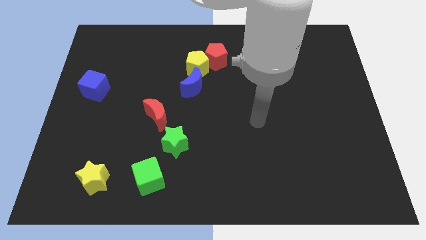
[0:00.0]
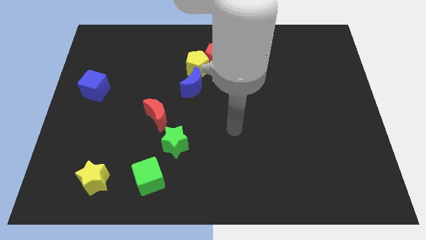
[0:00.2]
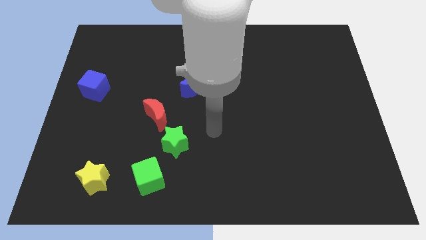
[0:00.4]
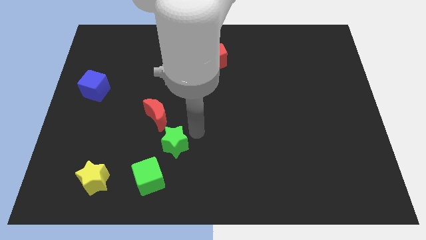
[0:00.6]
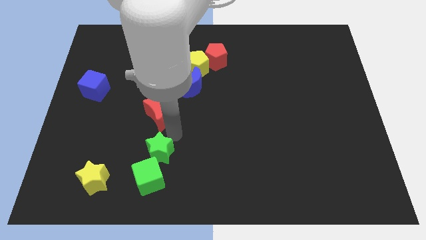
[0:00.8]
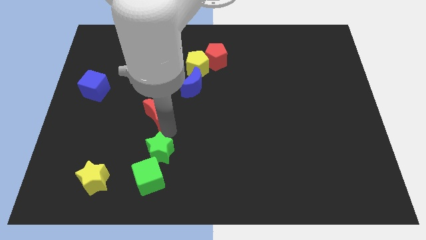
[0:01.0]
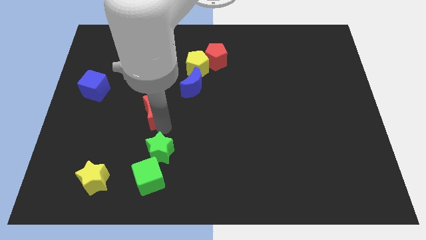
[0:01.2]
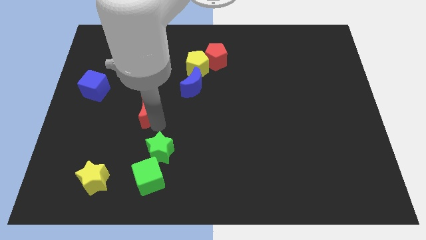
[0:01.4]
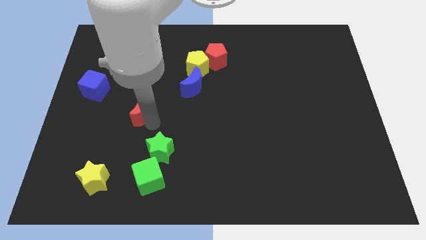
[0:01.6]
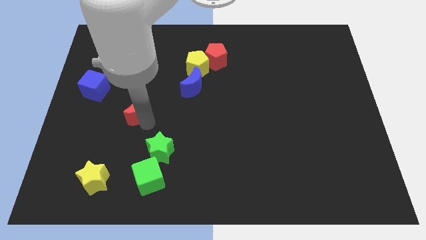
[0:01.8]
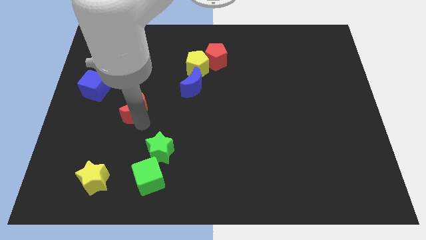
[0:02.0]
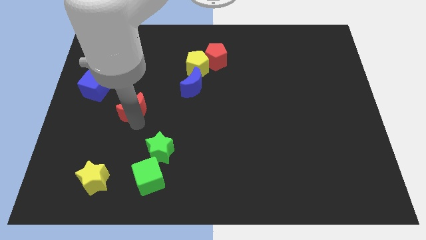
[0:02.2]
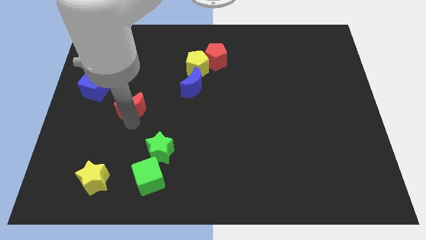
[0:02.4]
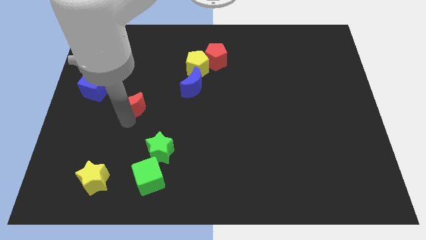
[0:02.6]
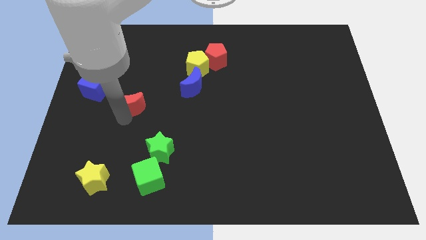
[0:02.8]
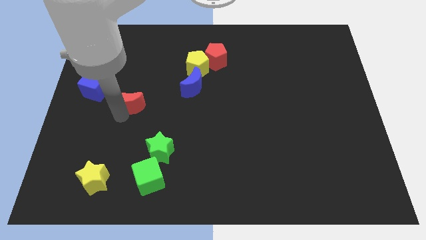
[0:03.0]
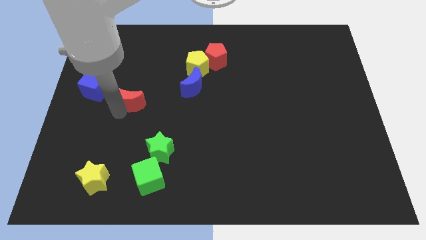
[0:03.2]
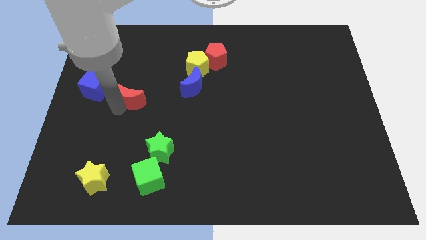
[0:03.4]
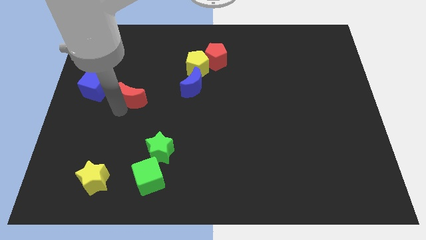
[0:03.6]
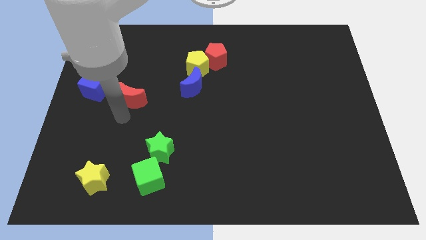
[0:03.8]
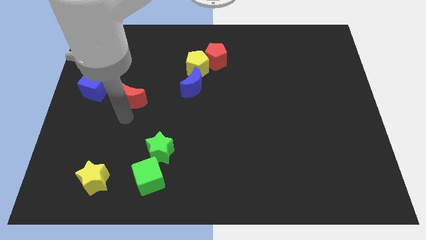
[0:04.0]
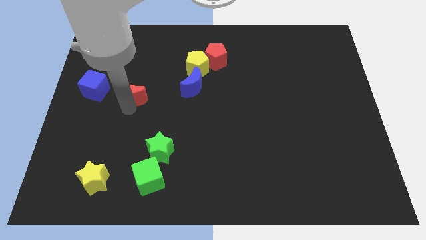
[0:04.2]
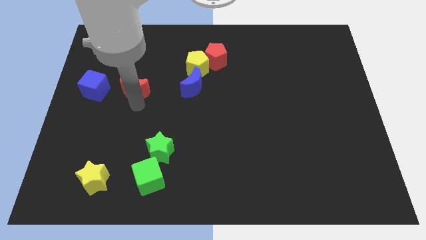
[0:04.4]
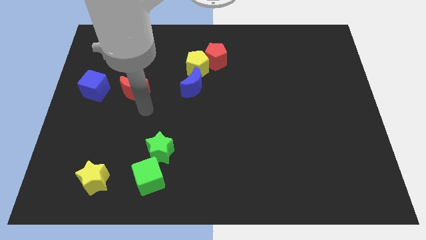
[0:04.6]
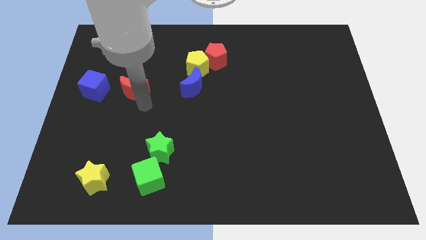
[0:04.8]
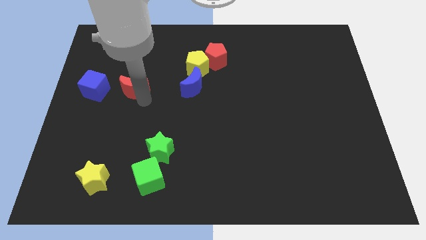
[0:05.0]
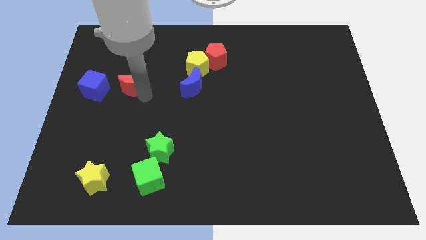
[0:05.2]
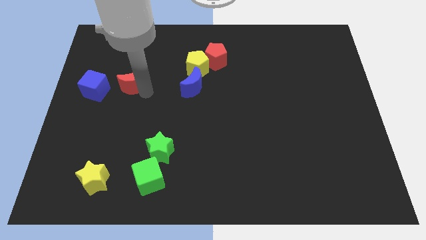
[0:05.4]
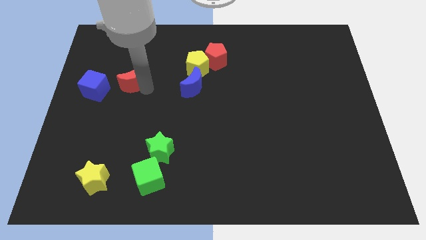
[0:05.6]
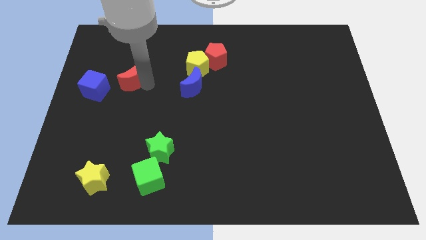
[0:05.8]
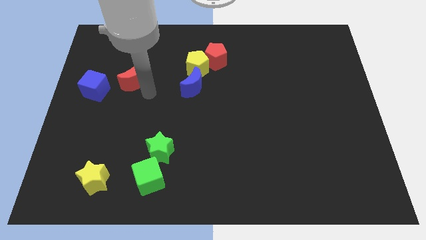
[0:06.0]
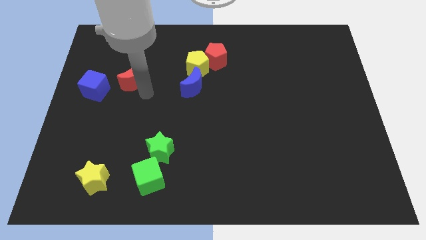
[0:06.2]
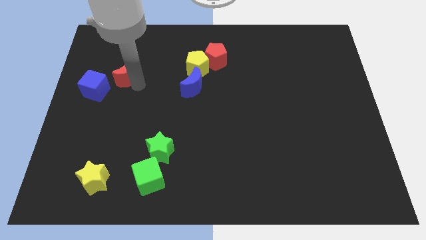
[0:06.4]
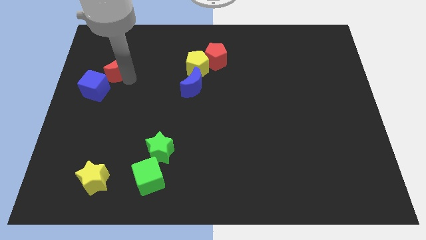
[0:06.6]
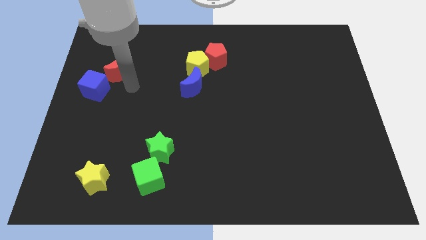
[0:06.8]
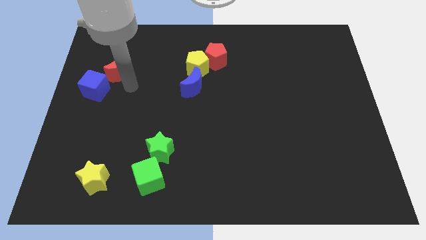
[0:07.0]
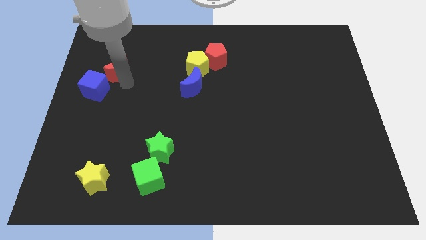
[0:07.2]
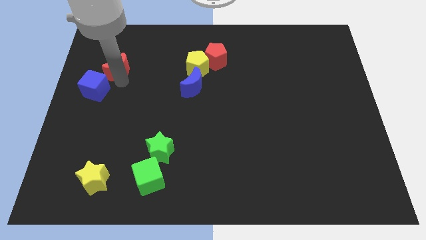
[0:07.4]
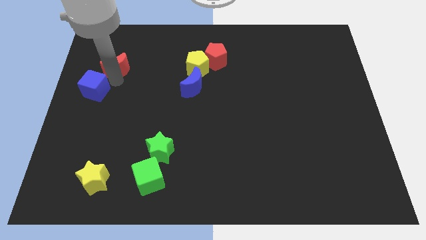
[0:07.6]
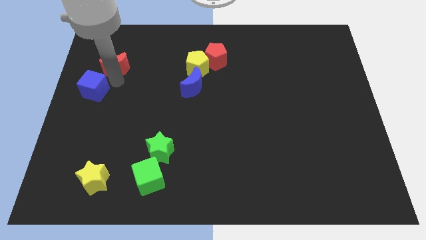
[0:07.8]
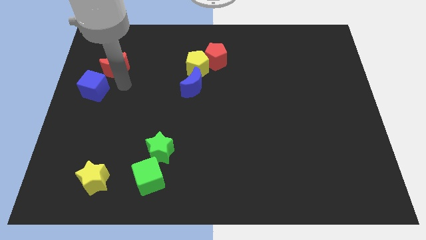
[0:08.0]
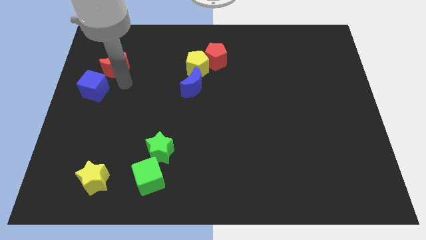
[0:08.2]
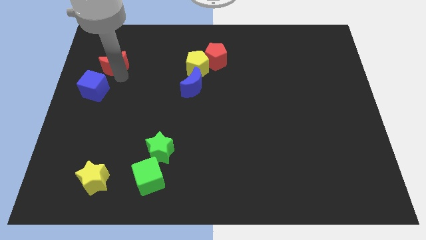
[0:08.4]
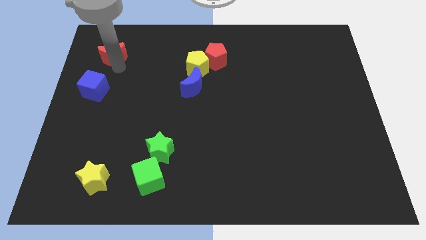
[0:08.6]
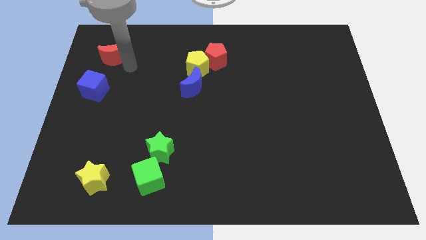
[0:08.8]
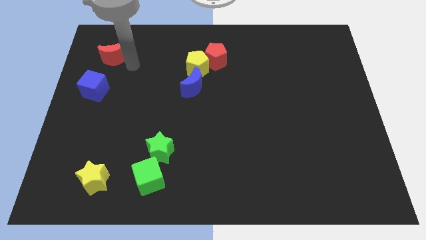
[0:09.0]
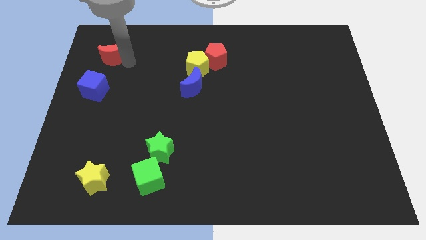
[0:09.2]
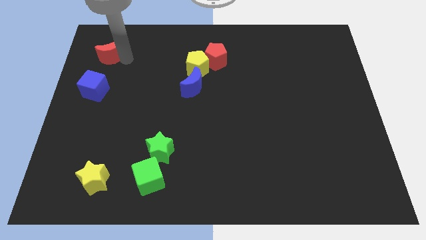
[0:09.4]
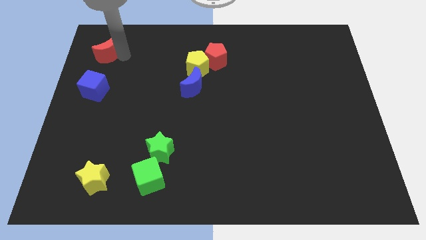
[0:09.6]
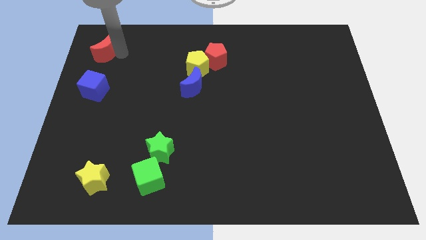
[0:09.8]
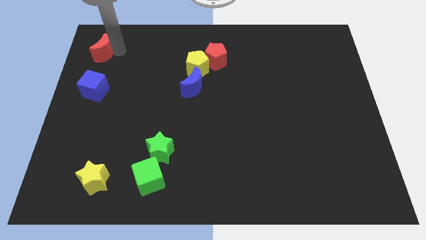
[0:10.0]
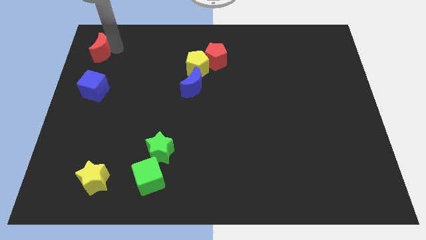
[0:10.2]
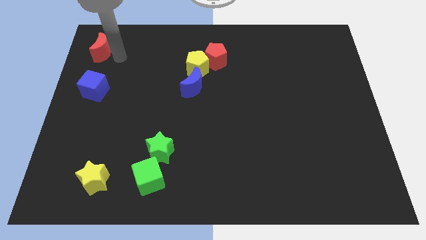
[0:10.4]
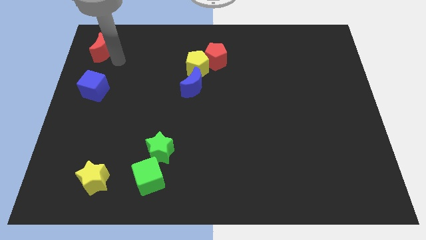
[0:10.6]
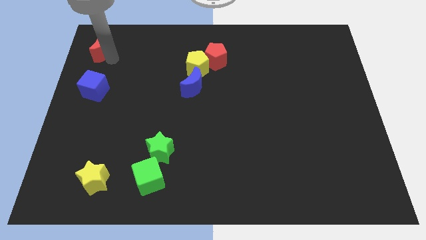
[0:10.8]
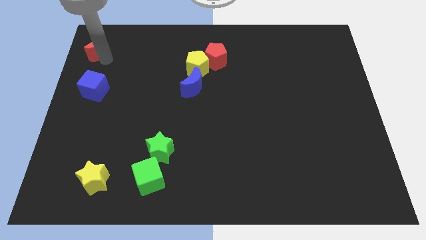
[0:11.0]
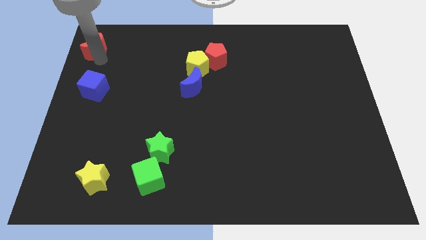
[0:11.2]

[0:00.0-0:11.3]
slide the red moon to the top left

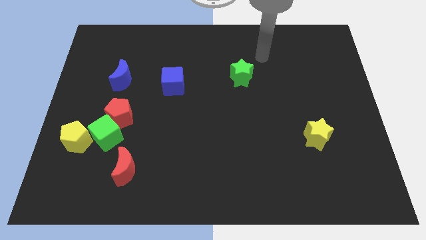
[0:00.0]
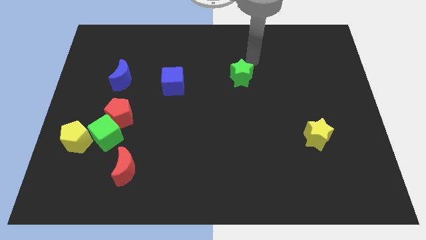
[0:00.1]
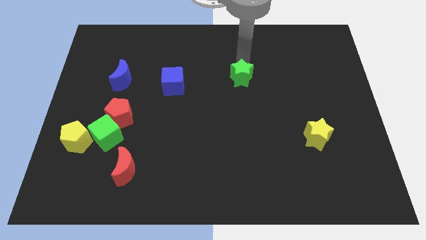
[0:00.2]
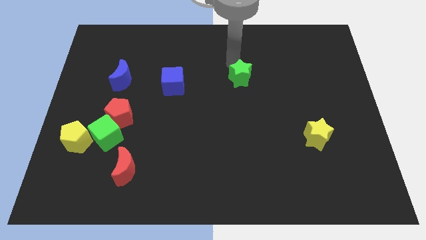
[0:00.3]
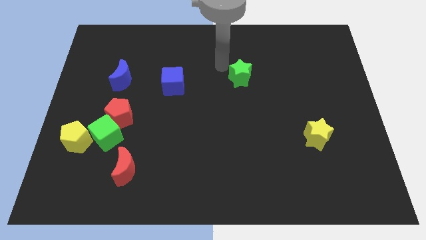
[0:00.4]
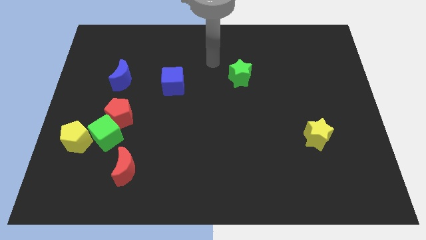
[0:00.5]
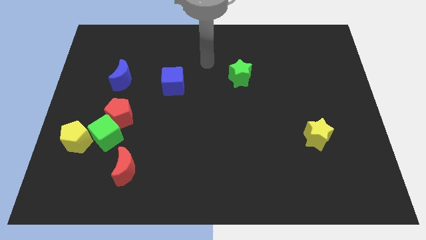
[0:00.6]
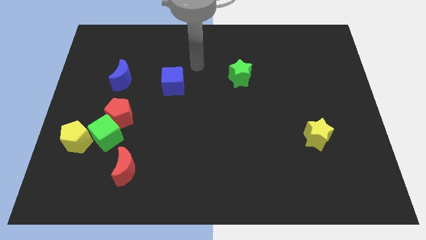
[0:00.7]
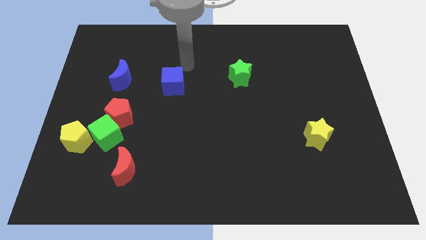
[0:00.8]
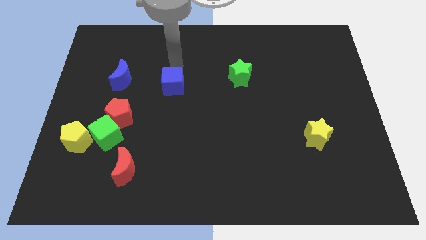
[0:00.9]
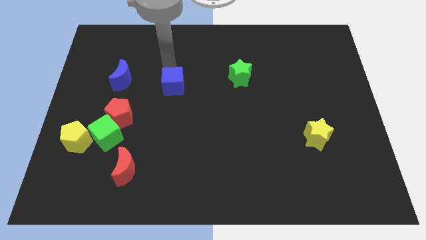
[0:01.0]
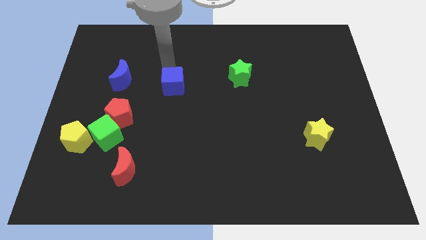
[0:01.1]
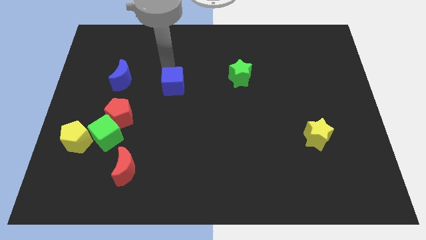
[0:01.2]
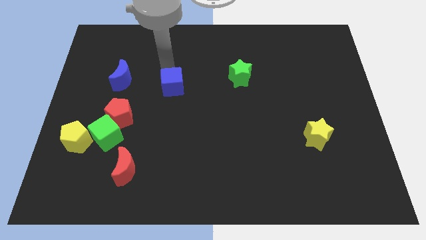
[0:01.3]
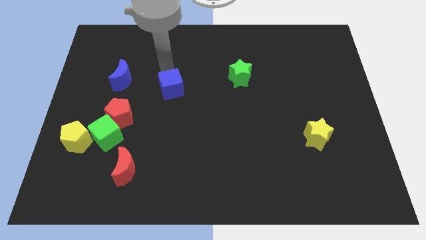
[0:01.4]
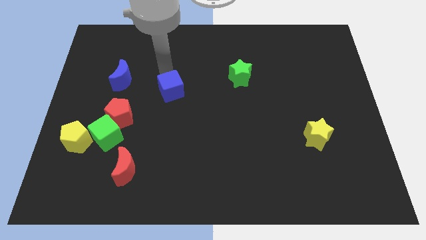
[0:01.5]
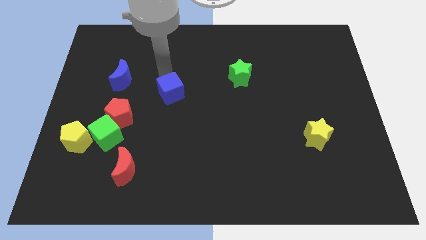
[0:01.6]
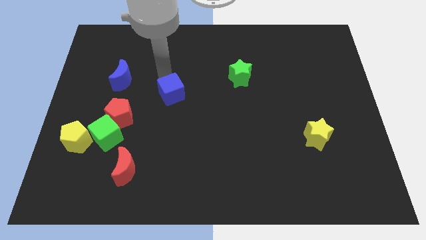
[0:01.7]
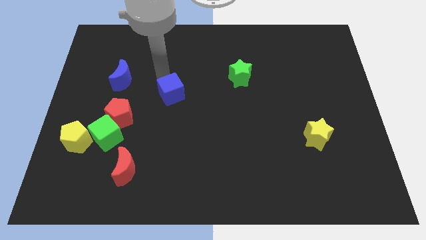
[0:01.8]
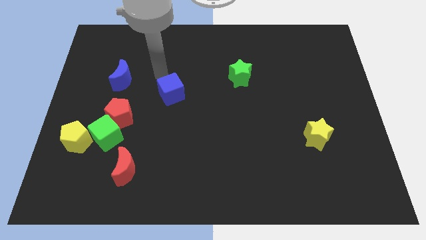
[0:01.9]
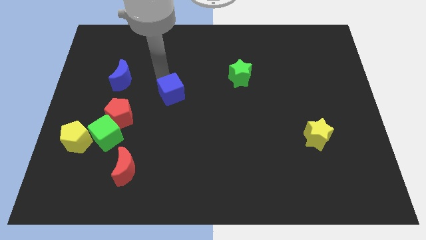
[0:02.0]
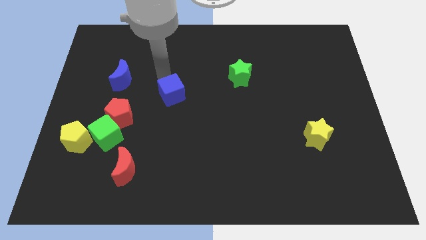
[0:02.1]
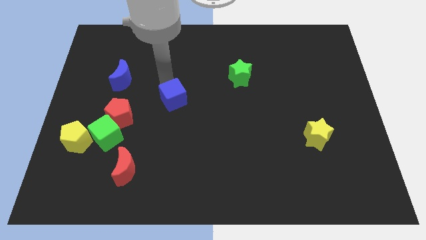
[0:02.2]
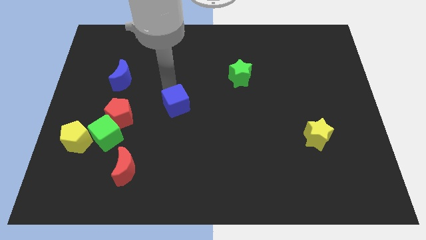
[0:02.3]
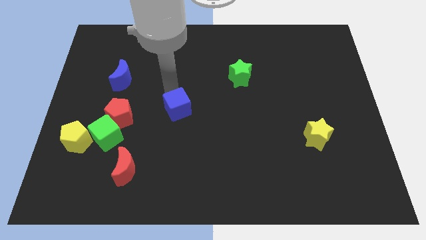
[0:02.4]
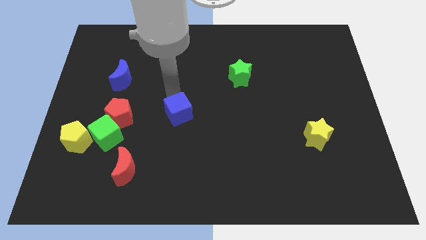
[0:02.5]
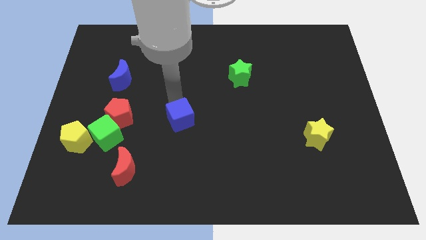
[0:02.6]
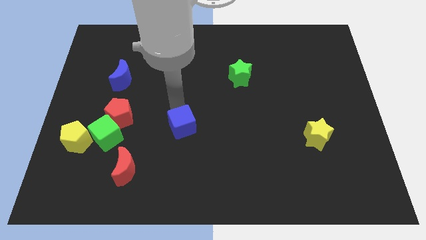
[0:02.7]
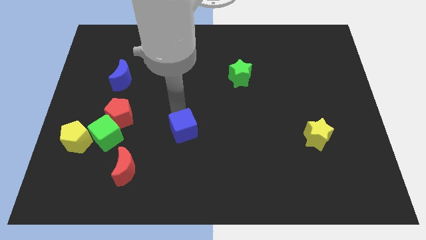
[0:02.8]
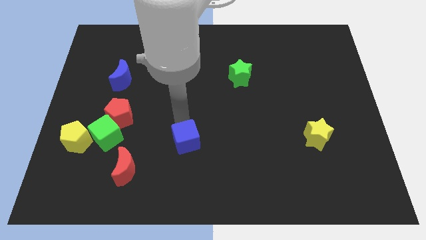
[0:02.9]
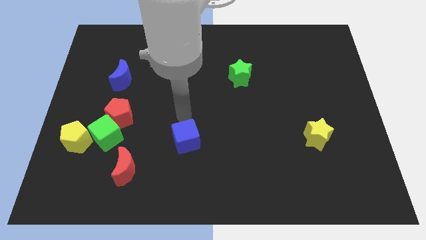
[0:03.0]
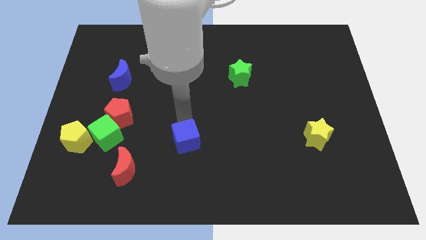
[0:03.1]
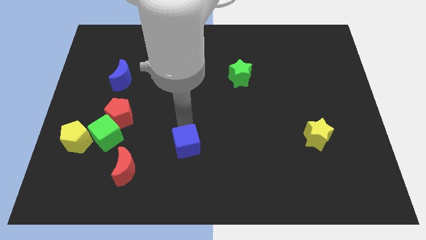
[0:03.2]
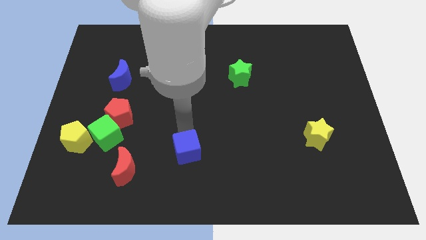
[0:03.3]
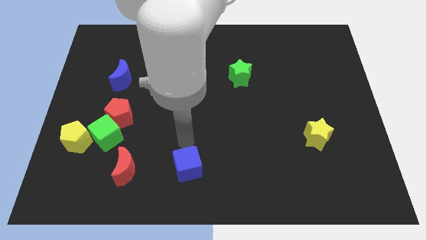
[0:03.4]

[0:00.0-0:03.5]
slide the blue cube to the bottom
